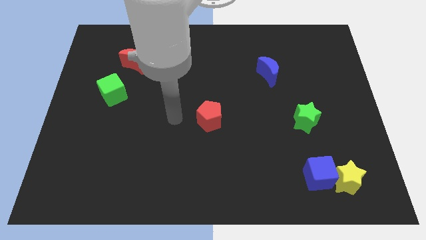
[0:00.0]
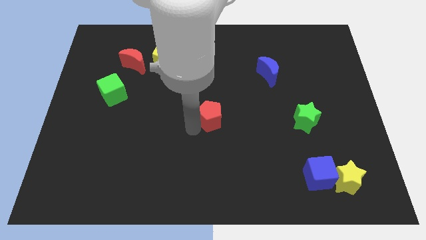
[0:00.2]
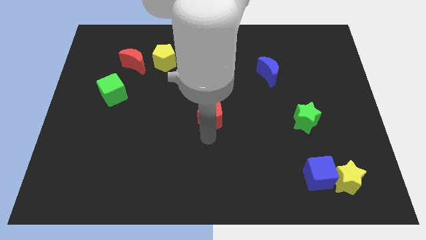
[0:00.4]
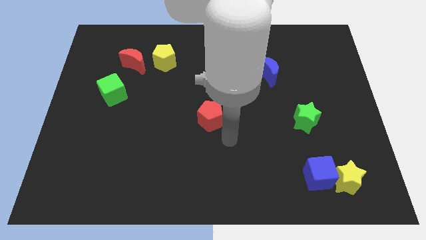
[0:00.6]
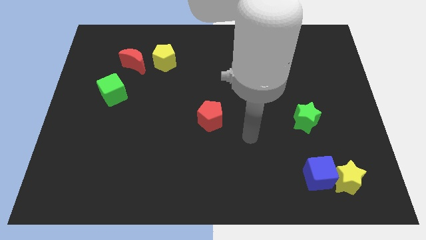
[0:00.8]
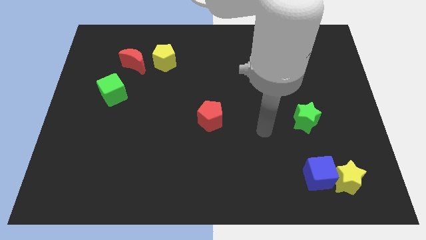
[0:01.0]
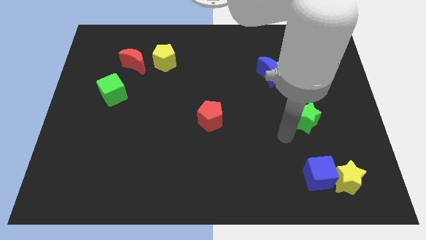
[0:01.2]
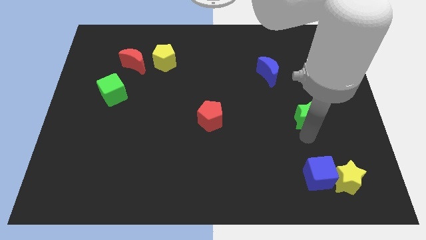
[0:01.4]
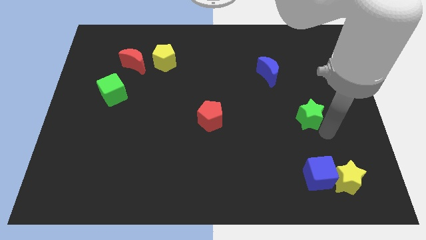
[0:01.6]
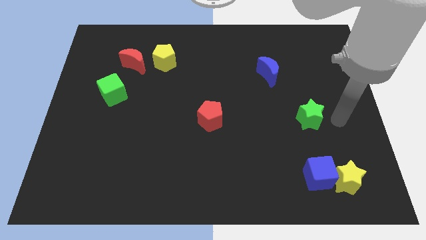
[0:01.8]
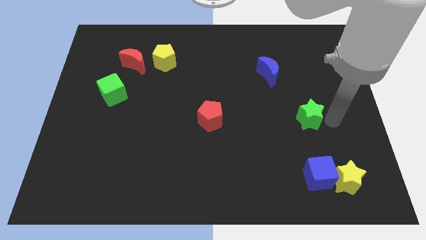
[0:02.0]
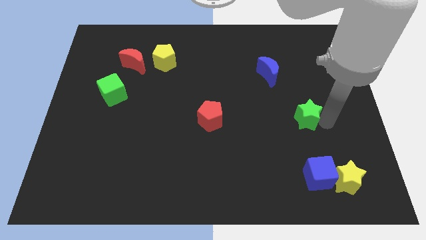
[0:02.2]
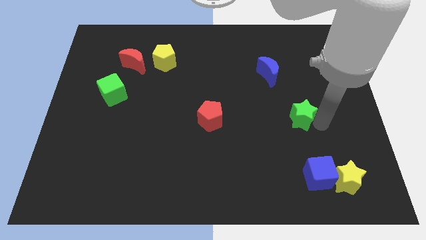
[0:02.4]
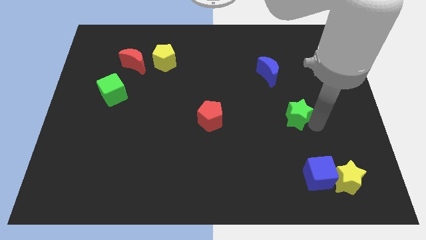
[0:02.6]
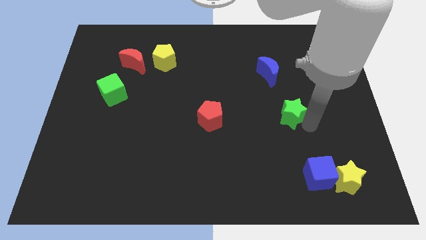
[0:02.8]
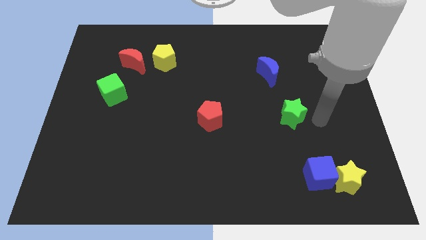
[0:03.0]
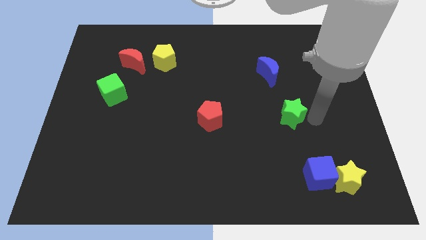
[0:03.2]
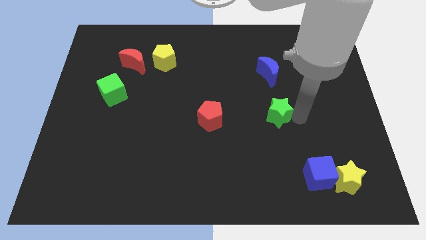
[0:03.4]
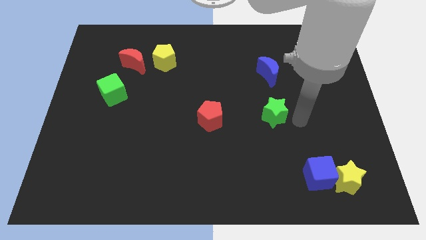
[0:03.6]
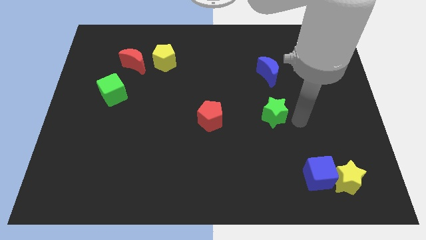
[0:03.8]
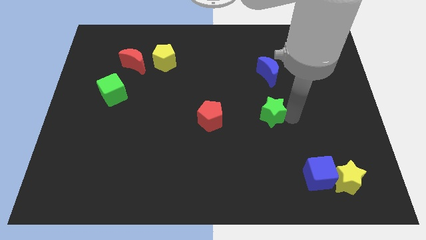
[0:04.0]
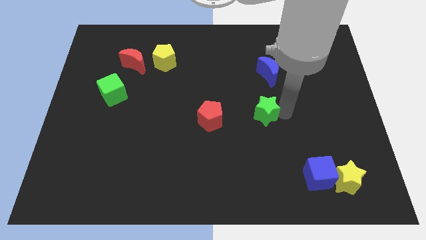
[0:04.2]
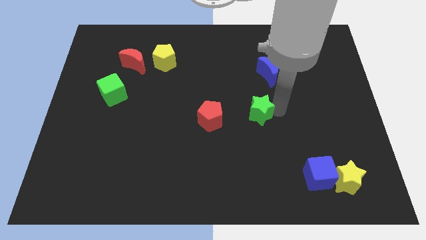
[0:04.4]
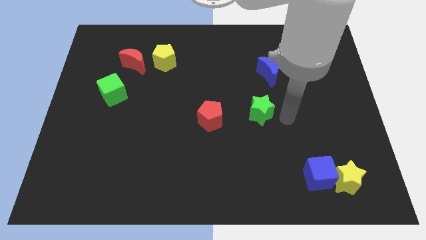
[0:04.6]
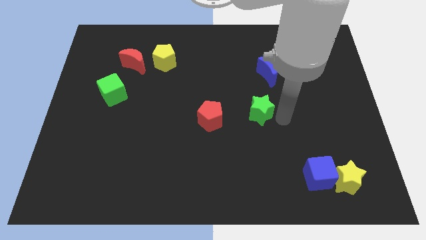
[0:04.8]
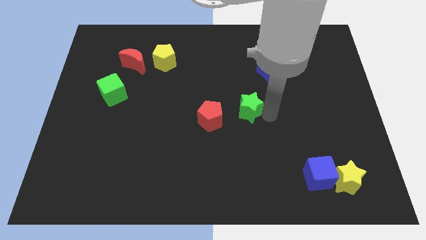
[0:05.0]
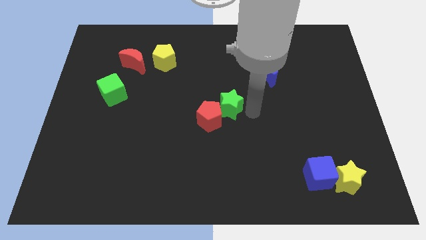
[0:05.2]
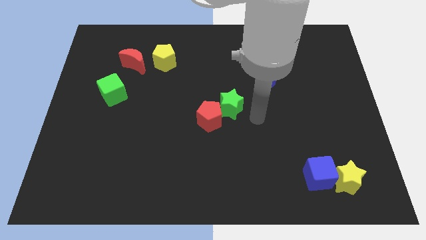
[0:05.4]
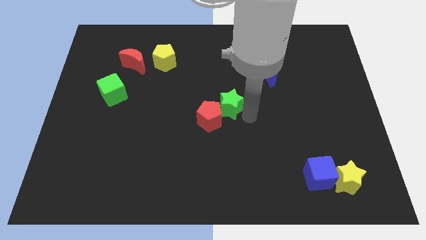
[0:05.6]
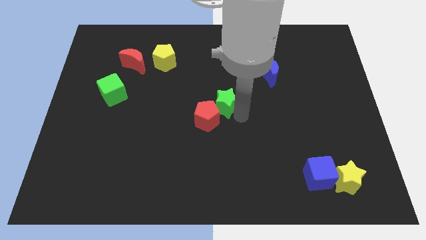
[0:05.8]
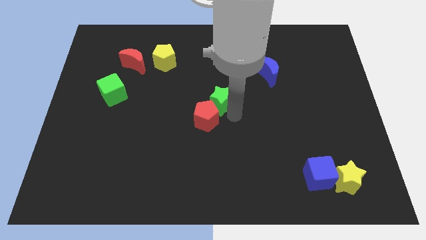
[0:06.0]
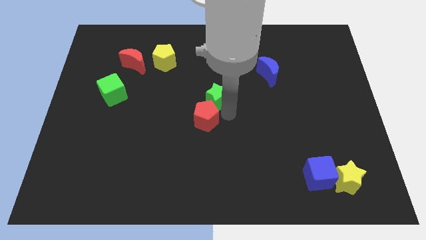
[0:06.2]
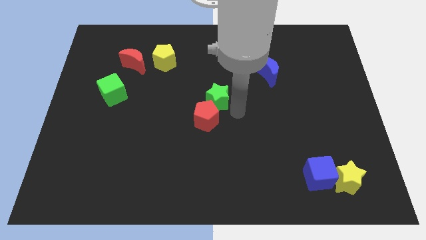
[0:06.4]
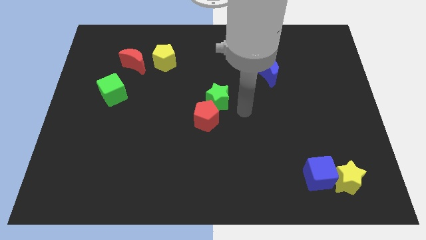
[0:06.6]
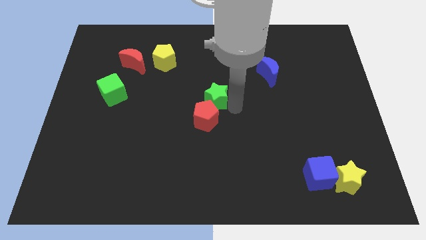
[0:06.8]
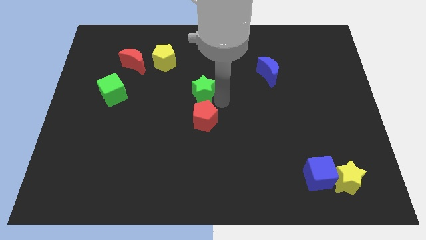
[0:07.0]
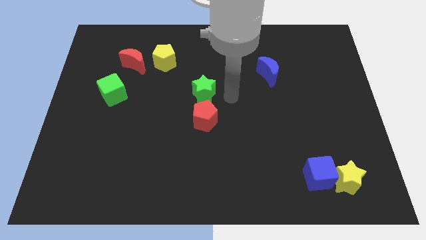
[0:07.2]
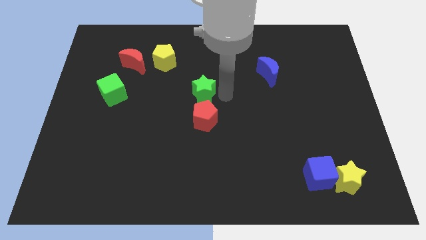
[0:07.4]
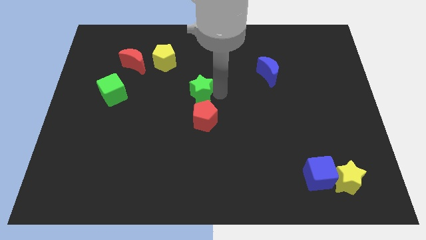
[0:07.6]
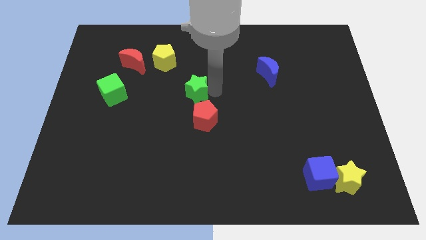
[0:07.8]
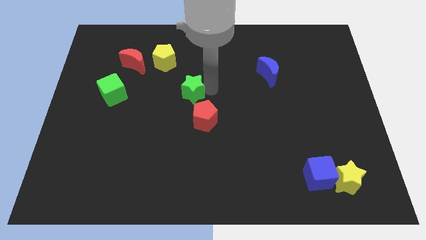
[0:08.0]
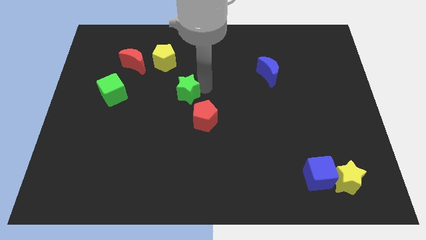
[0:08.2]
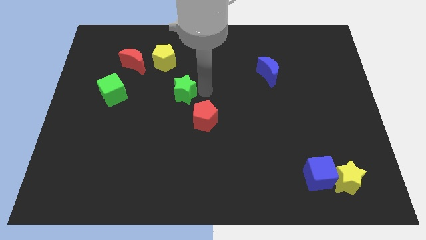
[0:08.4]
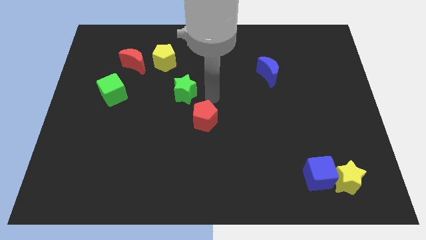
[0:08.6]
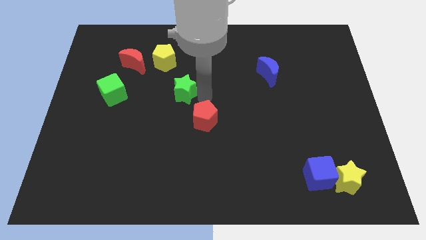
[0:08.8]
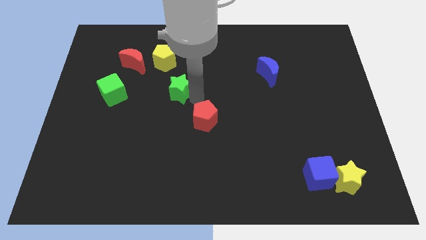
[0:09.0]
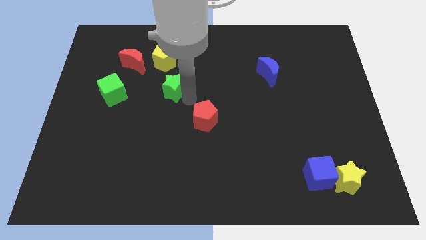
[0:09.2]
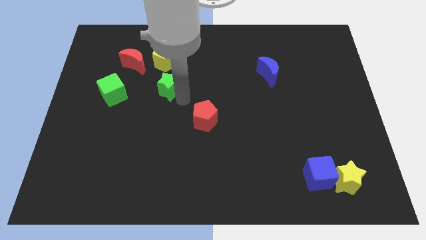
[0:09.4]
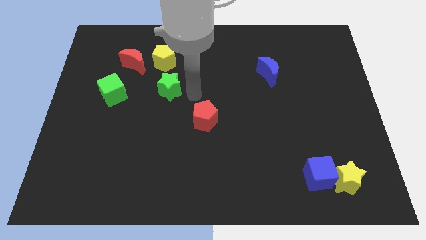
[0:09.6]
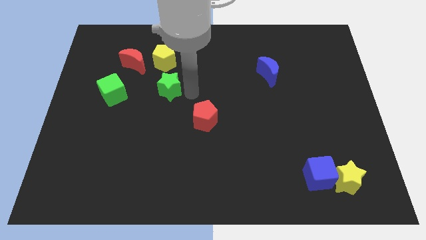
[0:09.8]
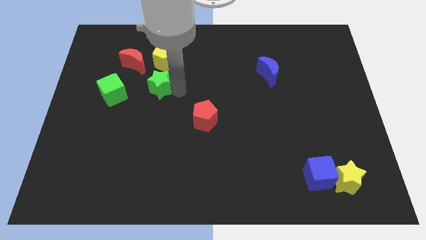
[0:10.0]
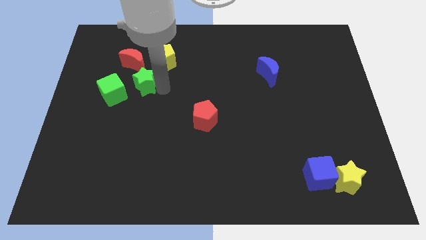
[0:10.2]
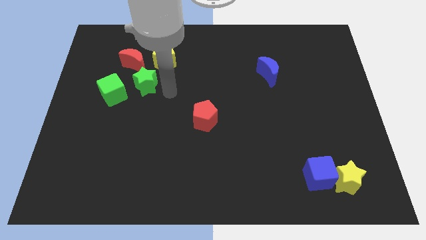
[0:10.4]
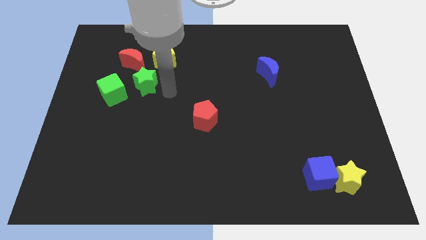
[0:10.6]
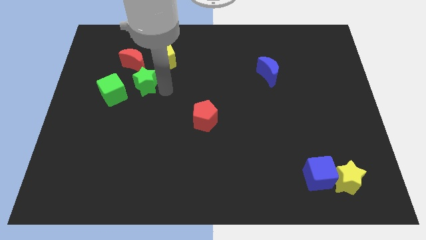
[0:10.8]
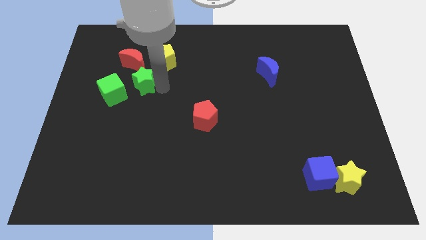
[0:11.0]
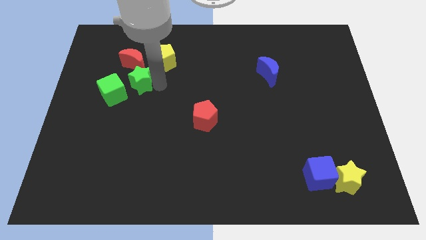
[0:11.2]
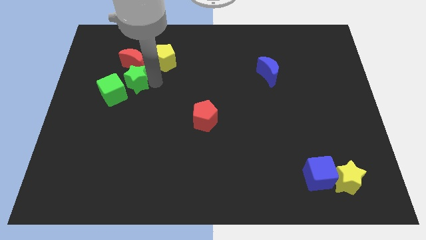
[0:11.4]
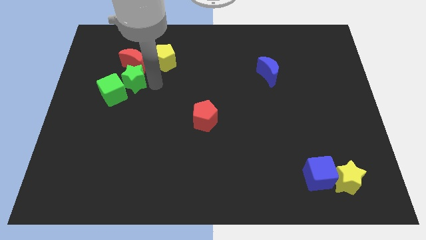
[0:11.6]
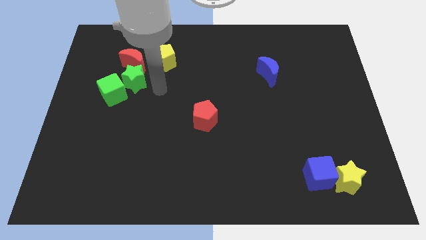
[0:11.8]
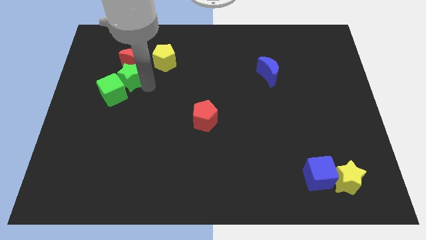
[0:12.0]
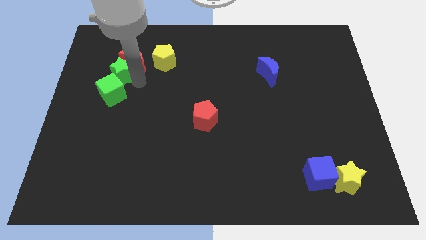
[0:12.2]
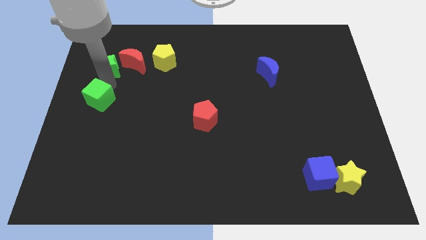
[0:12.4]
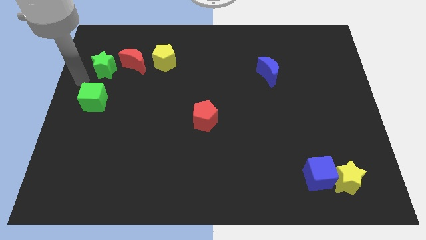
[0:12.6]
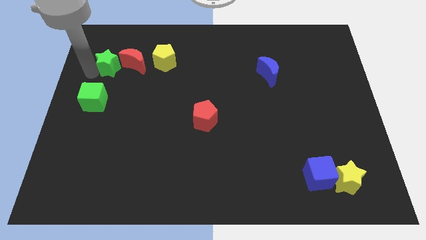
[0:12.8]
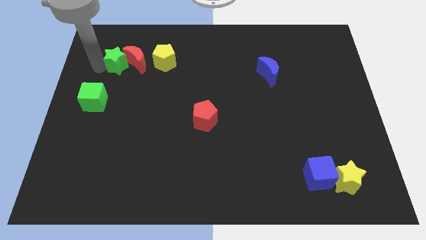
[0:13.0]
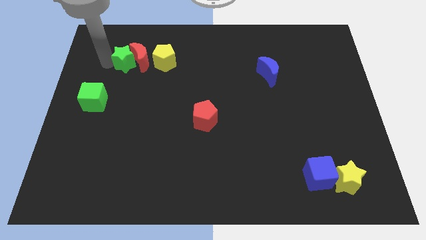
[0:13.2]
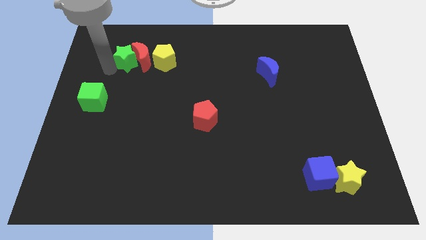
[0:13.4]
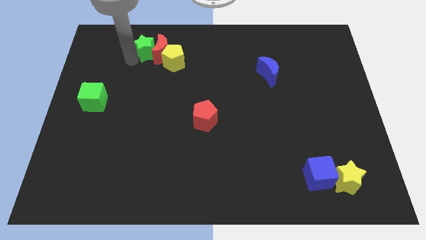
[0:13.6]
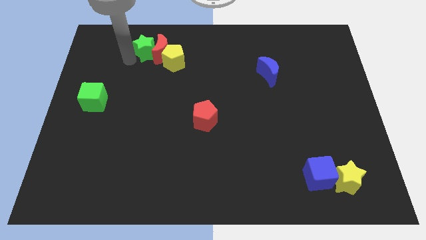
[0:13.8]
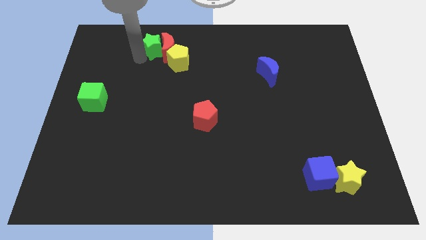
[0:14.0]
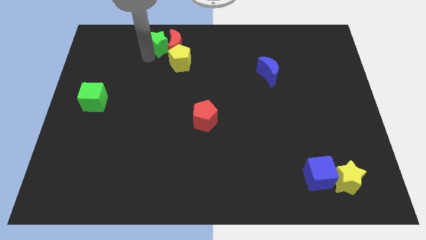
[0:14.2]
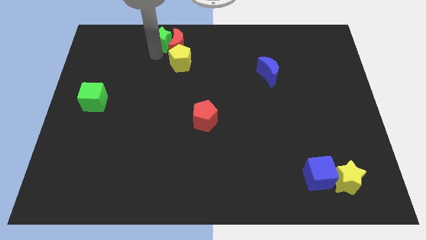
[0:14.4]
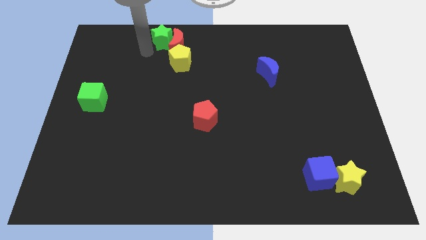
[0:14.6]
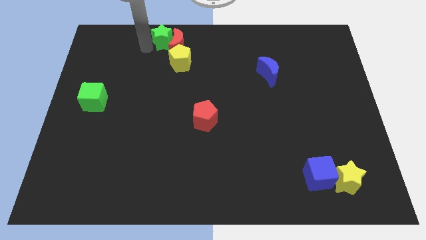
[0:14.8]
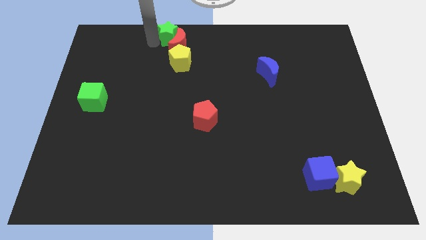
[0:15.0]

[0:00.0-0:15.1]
push the green star to the towards your base

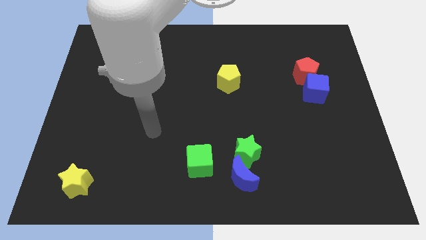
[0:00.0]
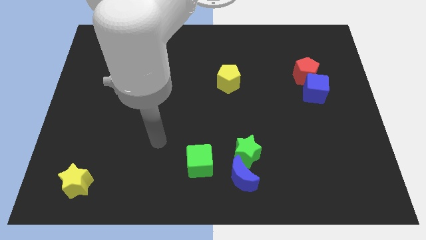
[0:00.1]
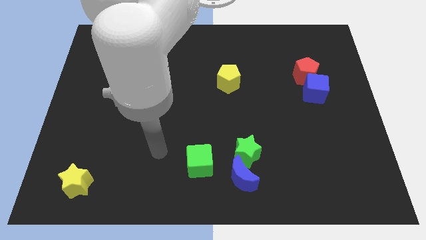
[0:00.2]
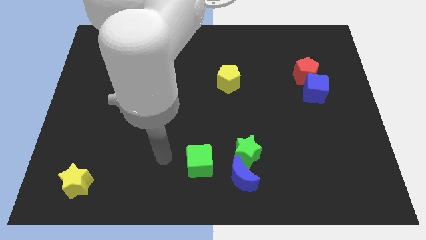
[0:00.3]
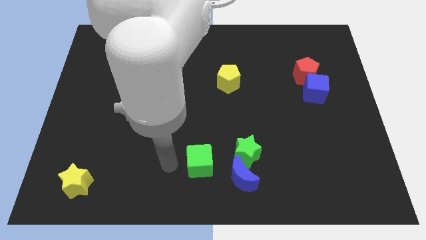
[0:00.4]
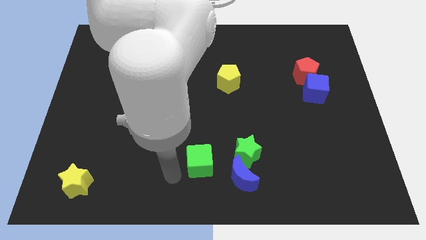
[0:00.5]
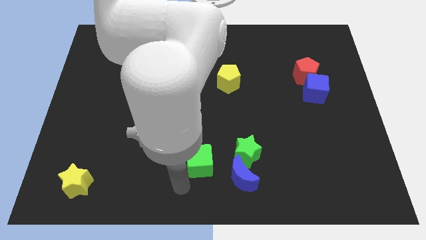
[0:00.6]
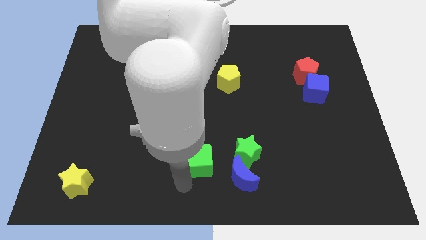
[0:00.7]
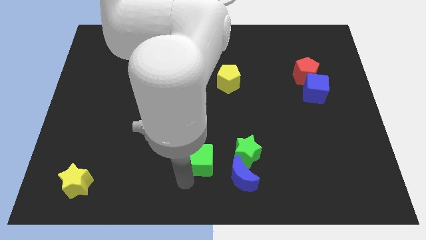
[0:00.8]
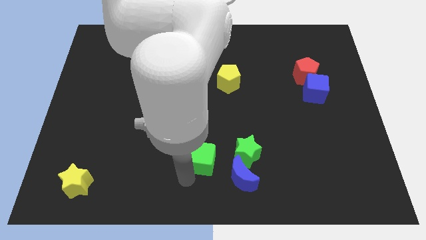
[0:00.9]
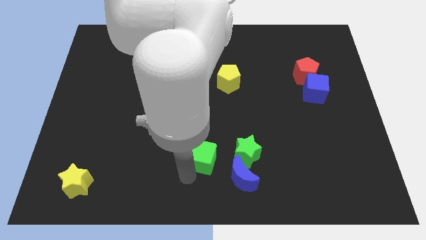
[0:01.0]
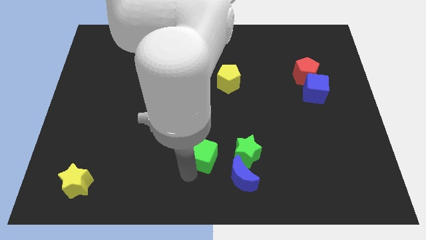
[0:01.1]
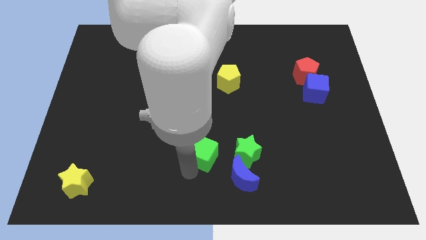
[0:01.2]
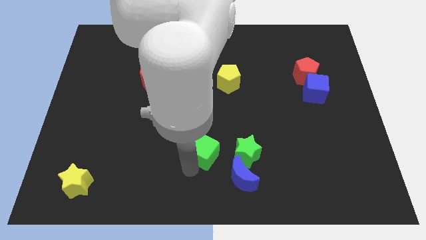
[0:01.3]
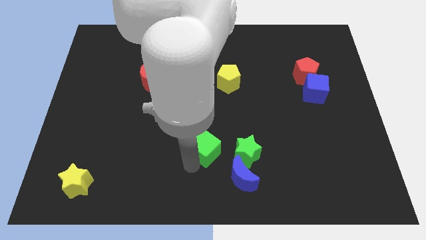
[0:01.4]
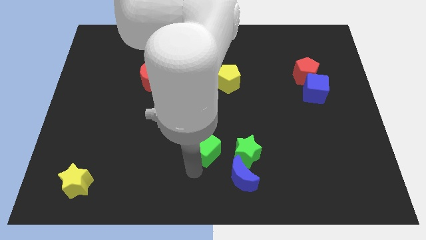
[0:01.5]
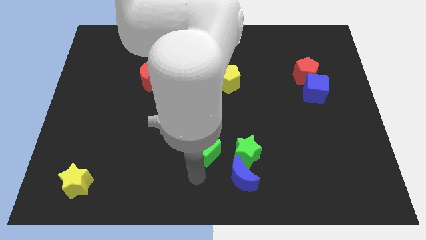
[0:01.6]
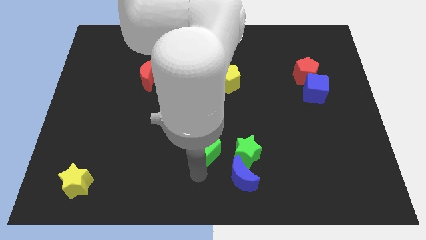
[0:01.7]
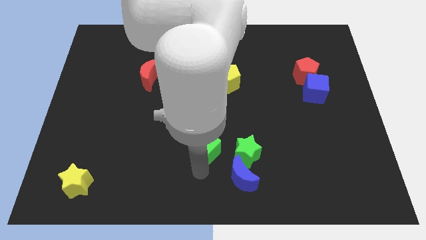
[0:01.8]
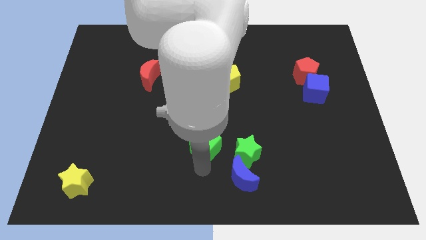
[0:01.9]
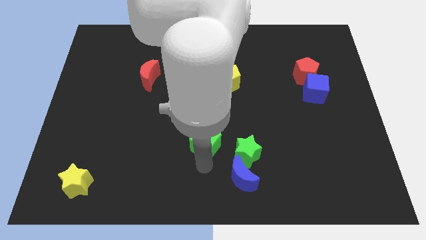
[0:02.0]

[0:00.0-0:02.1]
move the green cube to the center
